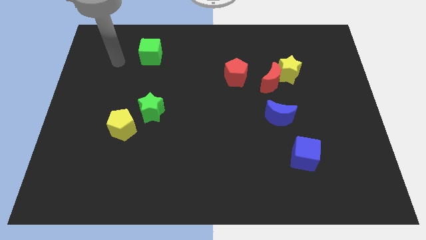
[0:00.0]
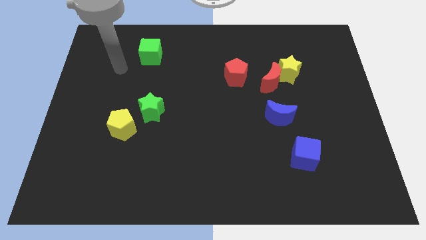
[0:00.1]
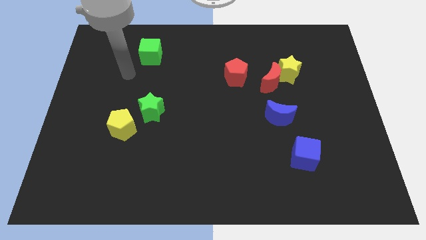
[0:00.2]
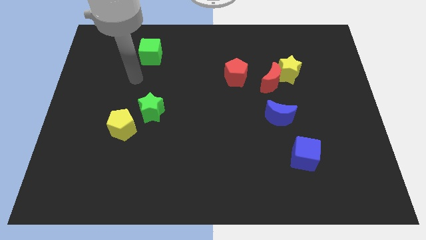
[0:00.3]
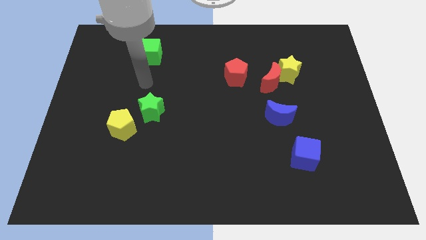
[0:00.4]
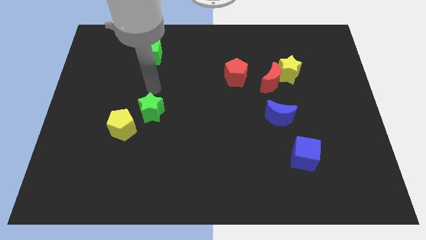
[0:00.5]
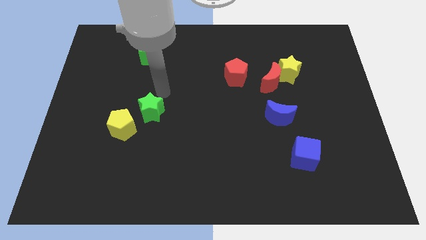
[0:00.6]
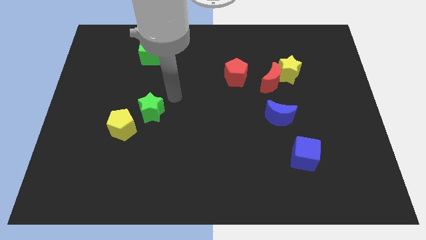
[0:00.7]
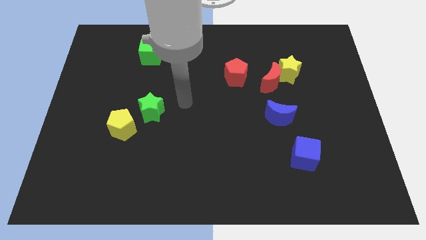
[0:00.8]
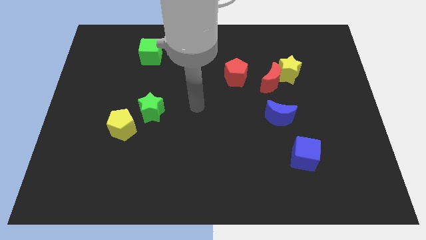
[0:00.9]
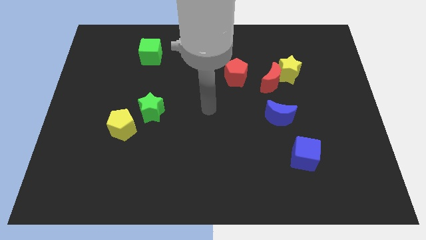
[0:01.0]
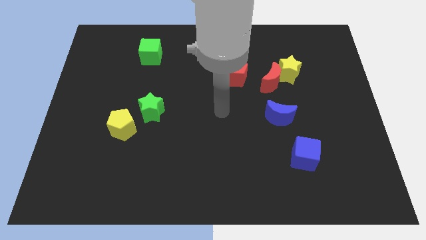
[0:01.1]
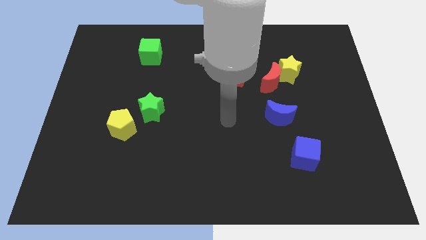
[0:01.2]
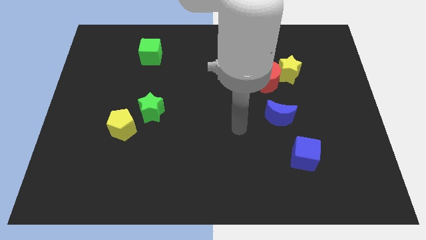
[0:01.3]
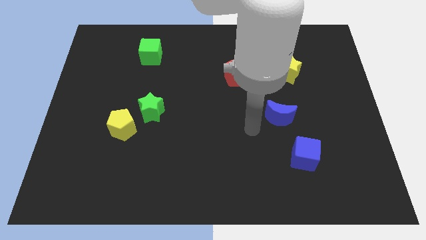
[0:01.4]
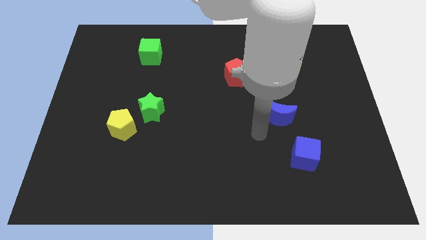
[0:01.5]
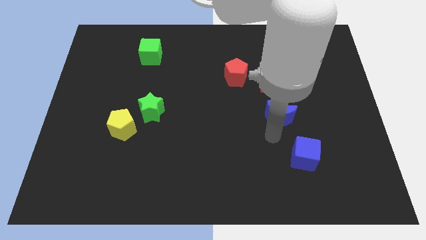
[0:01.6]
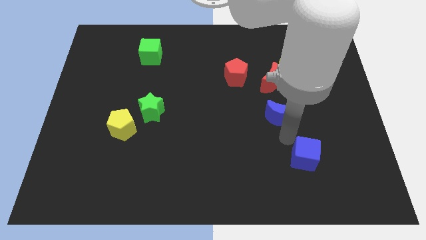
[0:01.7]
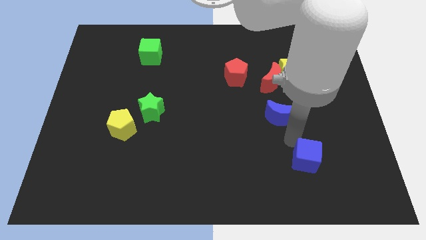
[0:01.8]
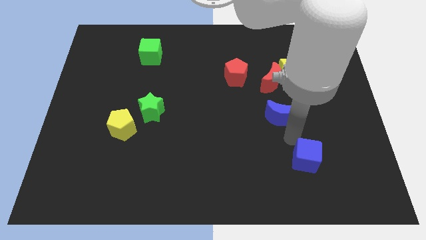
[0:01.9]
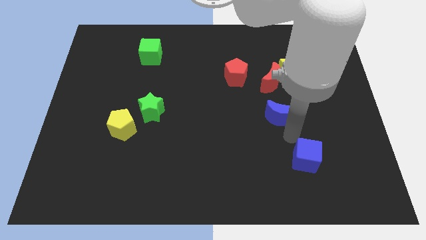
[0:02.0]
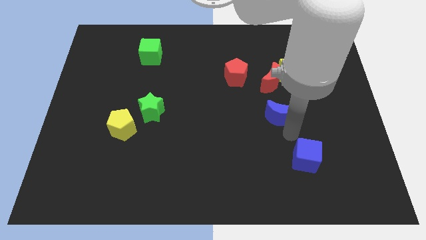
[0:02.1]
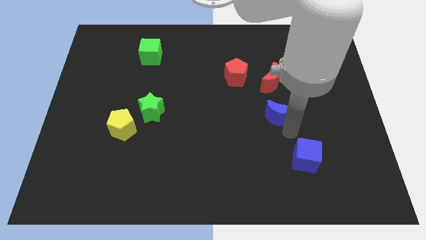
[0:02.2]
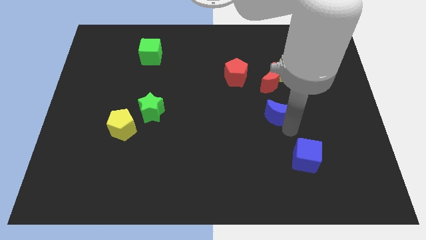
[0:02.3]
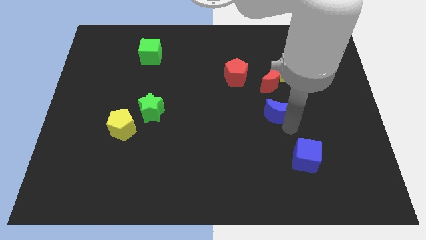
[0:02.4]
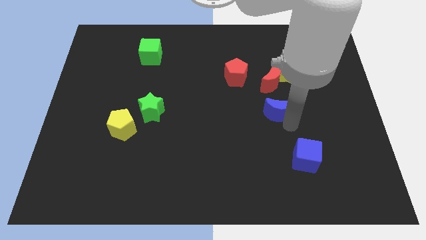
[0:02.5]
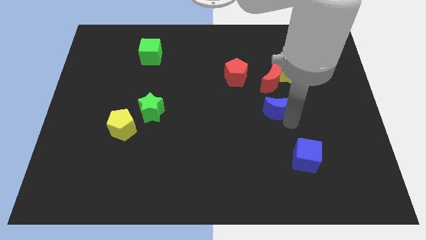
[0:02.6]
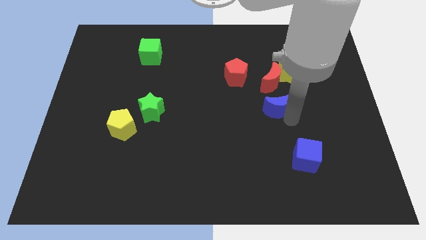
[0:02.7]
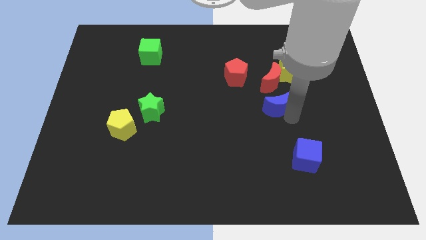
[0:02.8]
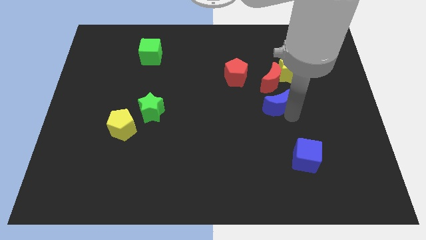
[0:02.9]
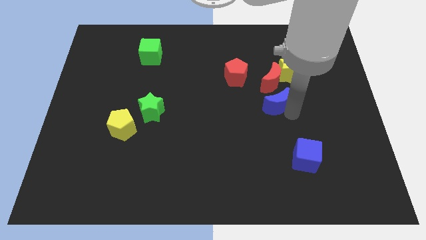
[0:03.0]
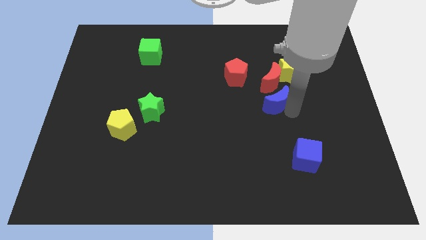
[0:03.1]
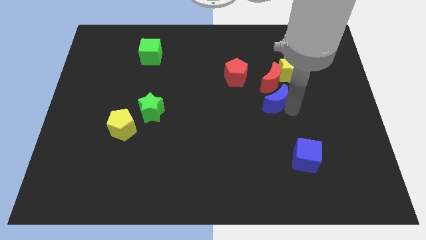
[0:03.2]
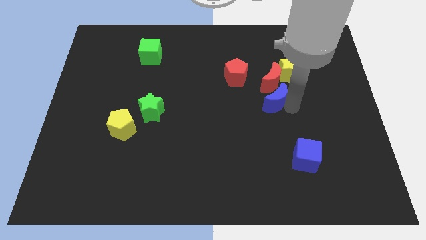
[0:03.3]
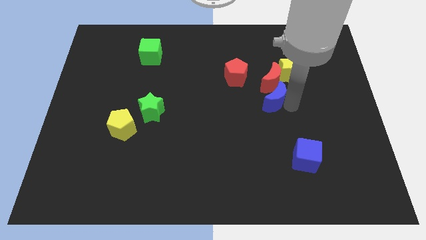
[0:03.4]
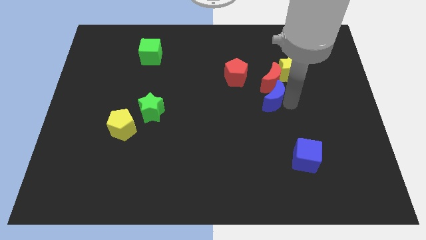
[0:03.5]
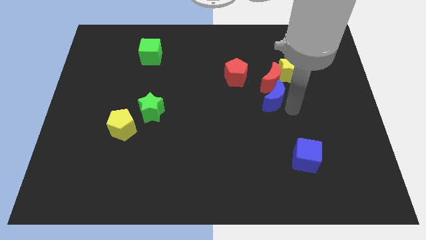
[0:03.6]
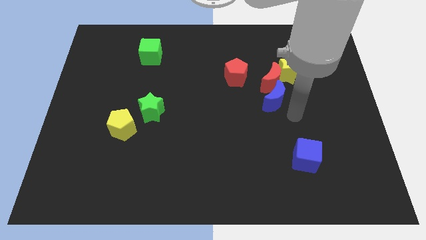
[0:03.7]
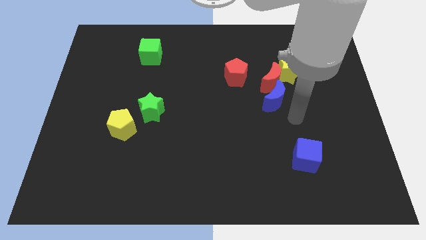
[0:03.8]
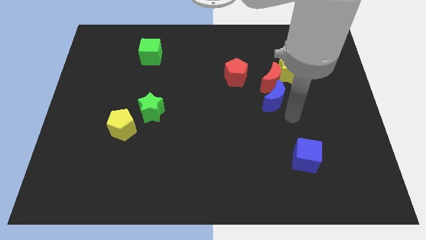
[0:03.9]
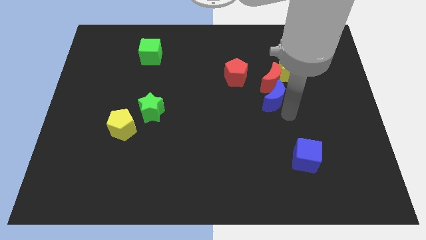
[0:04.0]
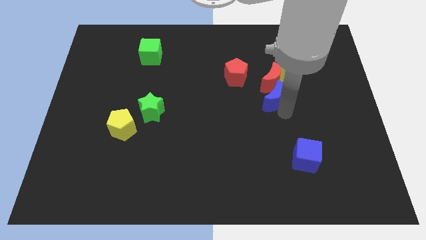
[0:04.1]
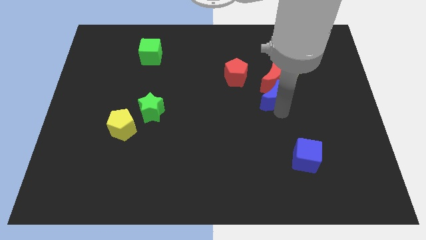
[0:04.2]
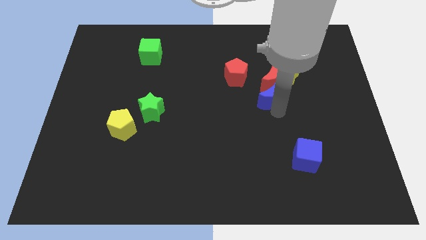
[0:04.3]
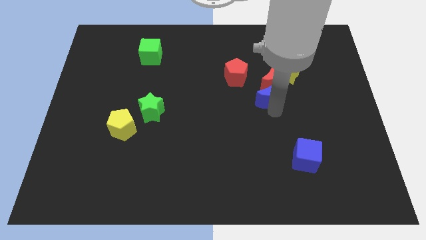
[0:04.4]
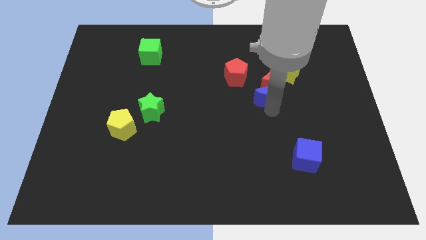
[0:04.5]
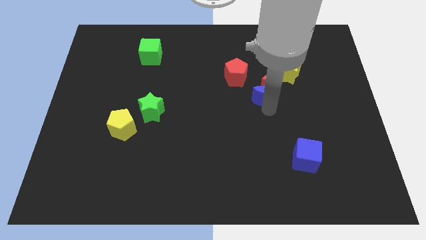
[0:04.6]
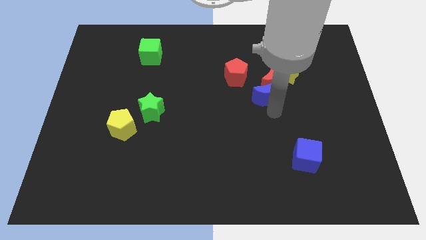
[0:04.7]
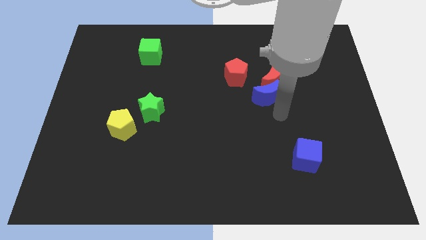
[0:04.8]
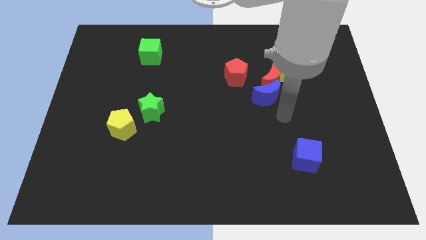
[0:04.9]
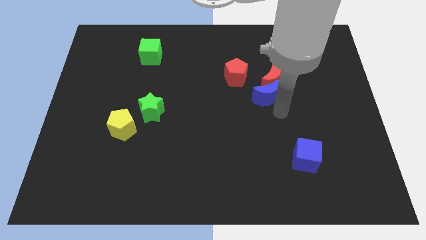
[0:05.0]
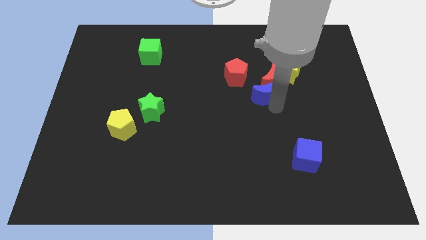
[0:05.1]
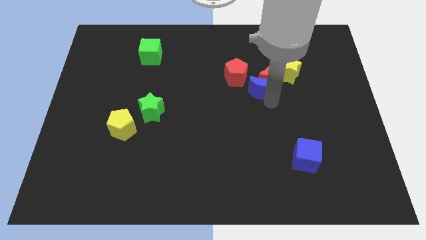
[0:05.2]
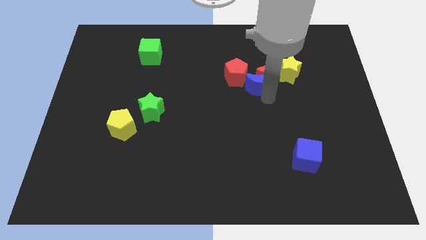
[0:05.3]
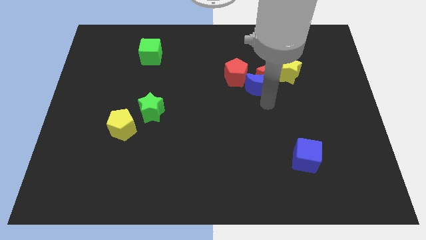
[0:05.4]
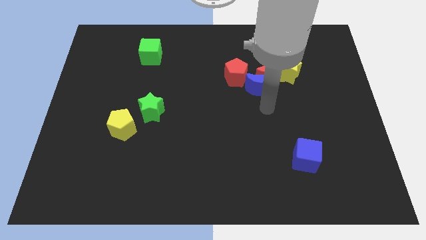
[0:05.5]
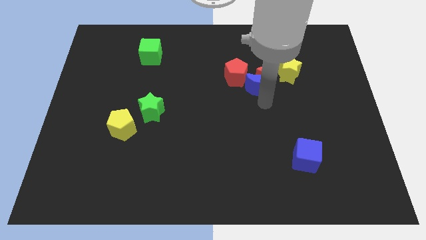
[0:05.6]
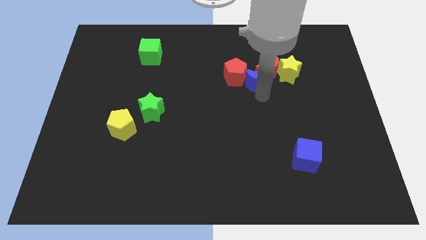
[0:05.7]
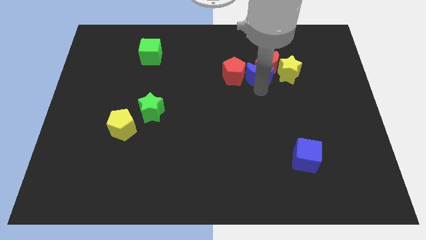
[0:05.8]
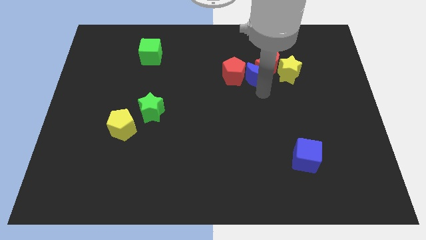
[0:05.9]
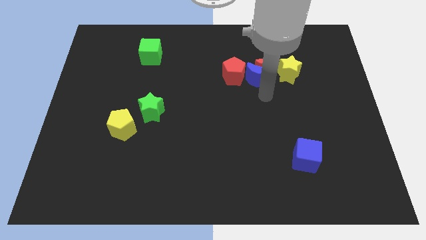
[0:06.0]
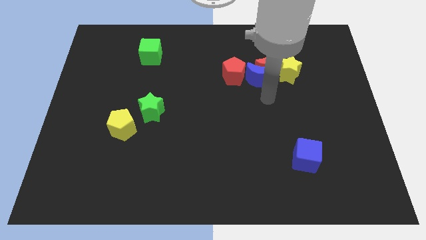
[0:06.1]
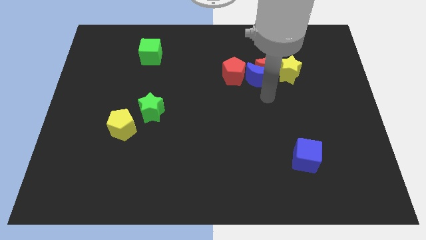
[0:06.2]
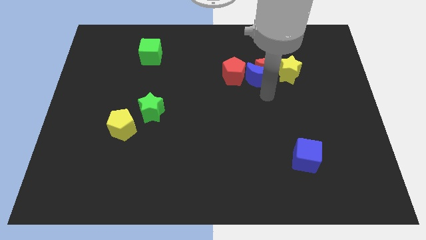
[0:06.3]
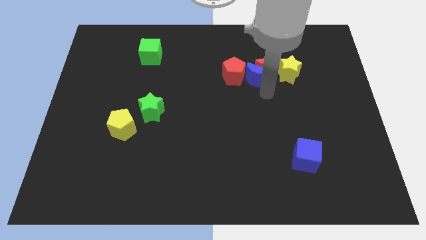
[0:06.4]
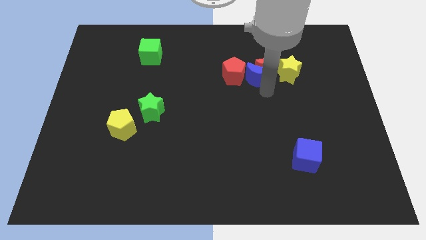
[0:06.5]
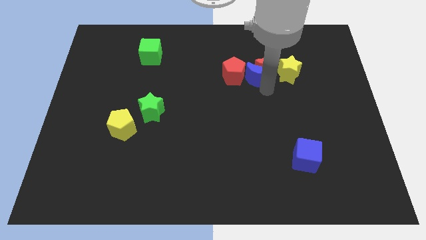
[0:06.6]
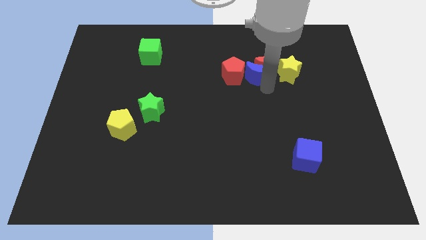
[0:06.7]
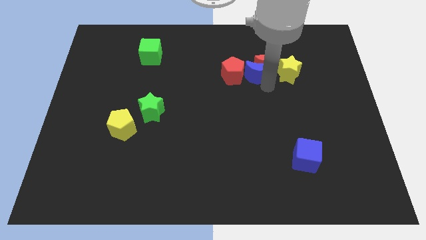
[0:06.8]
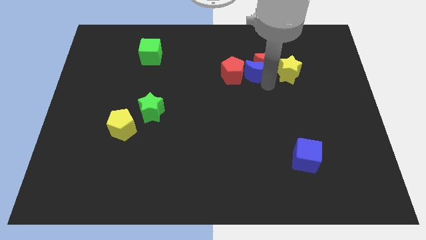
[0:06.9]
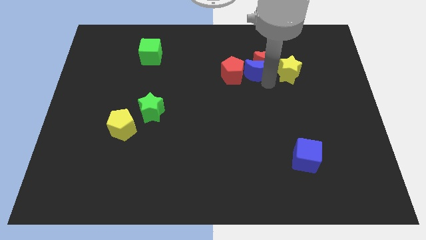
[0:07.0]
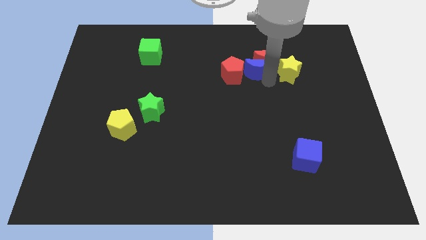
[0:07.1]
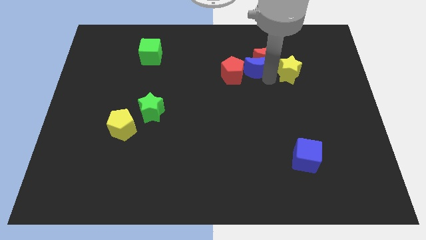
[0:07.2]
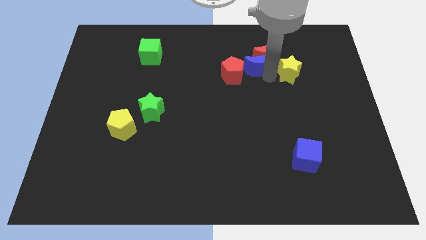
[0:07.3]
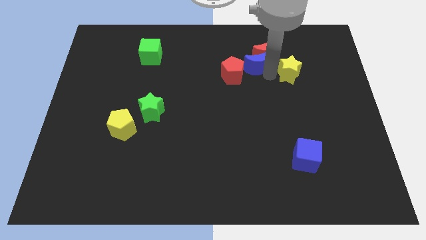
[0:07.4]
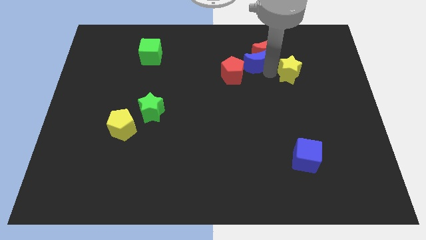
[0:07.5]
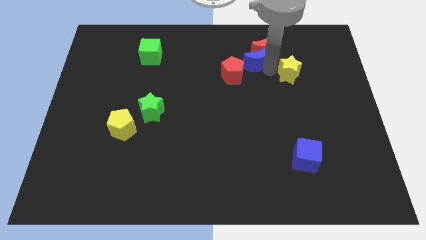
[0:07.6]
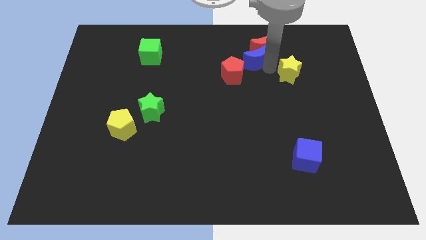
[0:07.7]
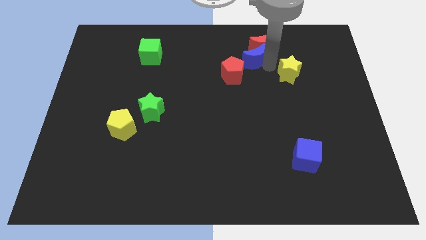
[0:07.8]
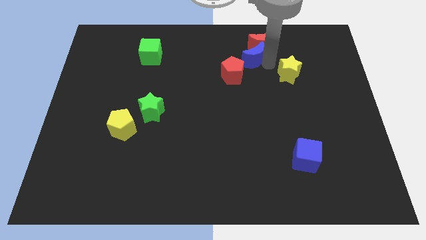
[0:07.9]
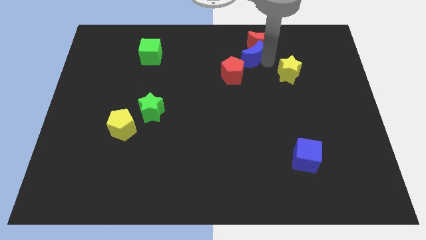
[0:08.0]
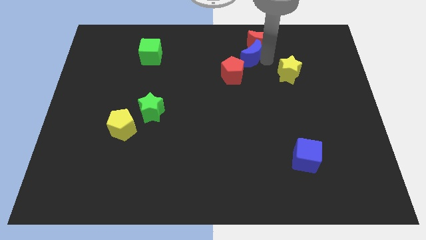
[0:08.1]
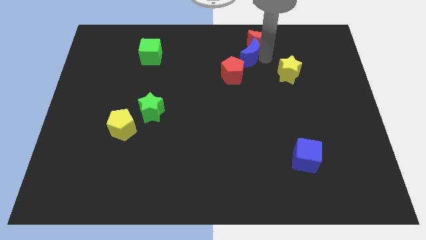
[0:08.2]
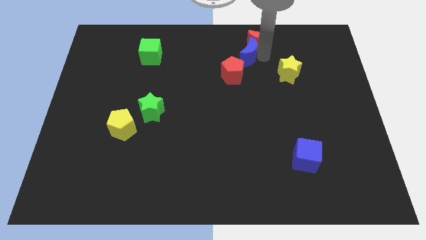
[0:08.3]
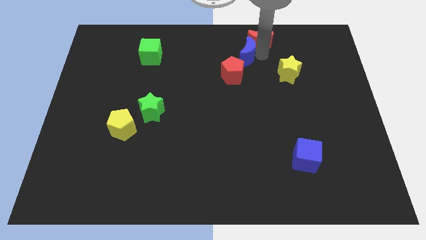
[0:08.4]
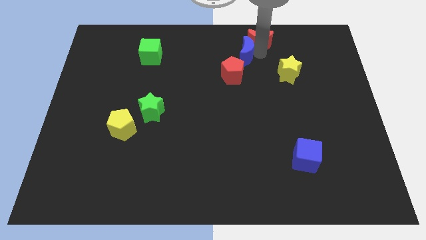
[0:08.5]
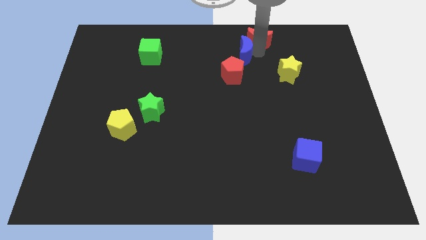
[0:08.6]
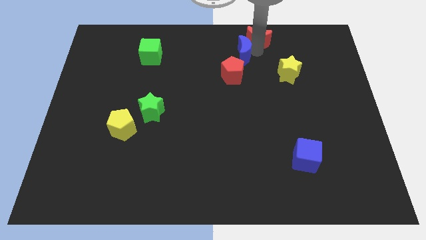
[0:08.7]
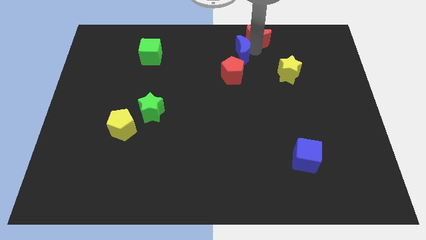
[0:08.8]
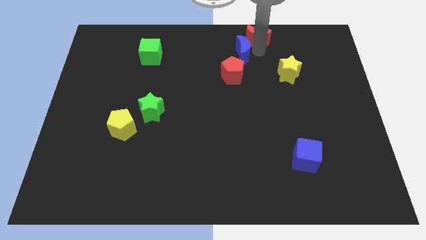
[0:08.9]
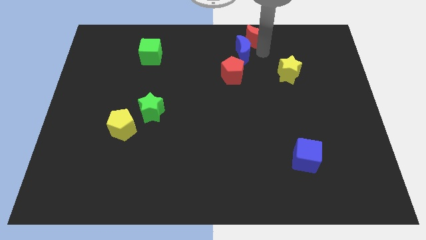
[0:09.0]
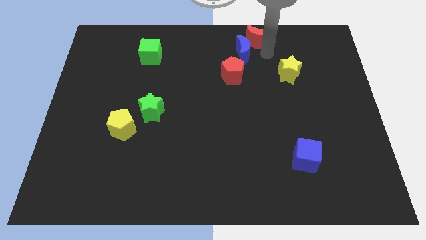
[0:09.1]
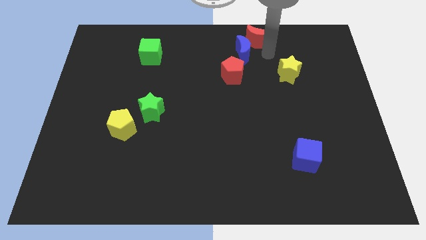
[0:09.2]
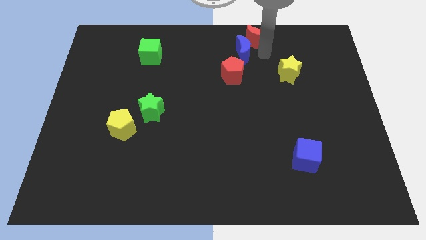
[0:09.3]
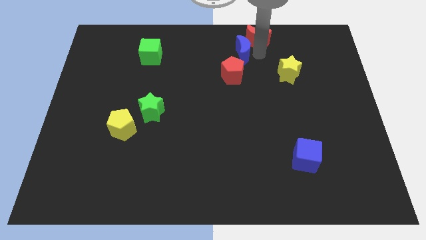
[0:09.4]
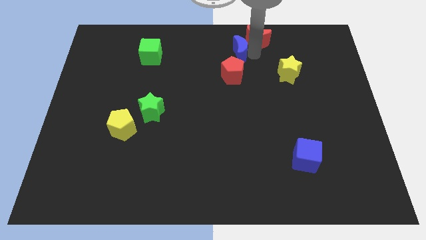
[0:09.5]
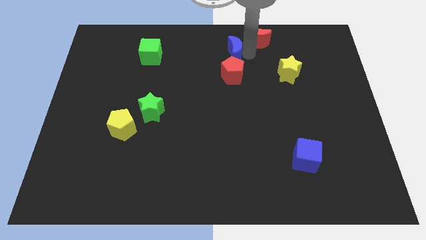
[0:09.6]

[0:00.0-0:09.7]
push the blue moon to the top
